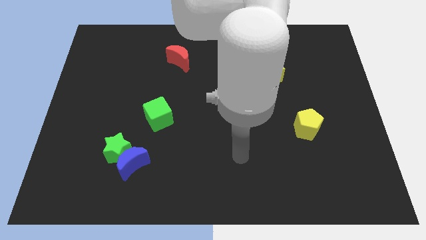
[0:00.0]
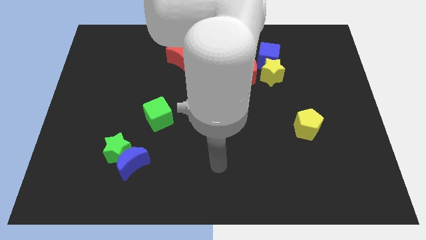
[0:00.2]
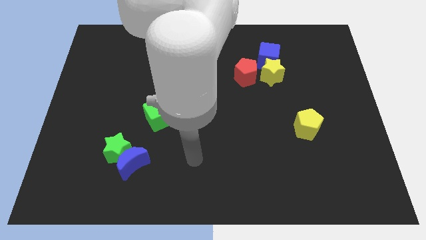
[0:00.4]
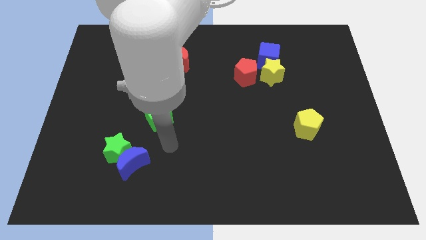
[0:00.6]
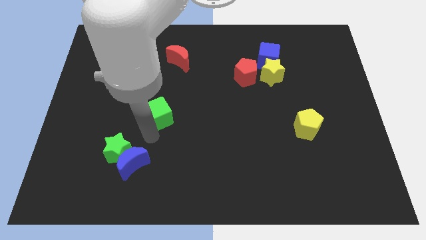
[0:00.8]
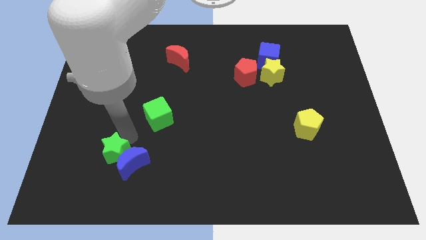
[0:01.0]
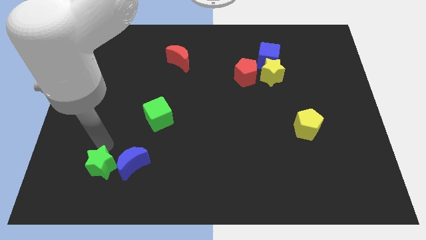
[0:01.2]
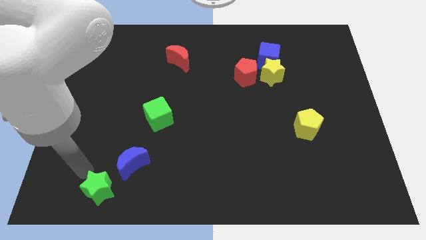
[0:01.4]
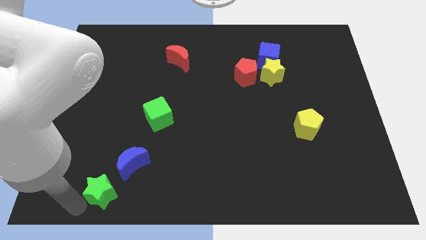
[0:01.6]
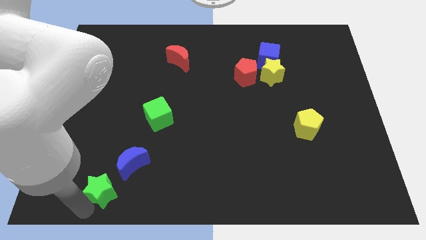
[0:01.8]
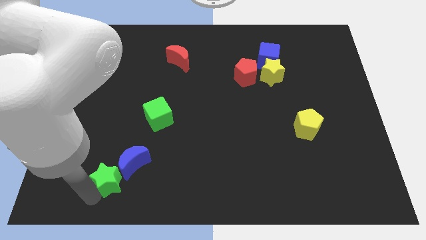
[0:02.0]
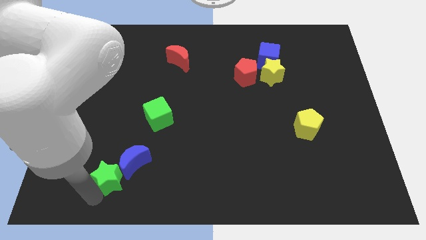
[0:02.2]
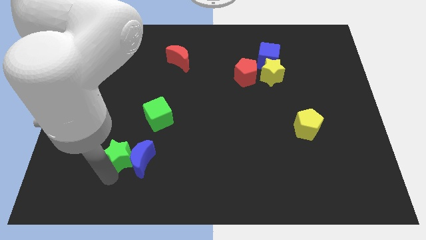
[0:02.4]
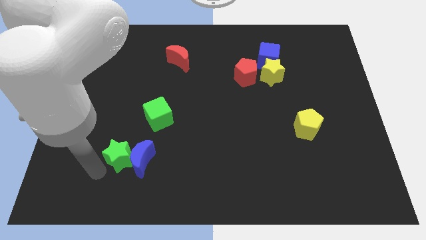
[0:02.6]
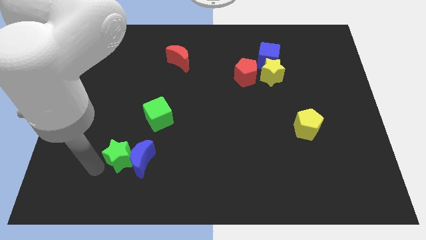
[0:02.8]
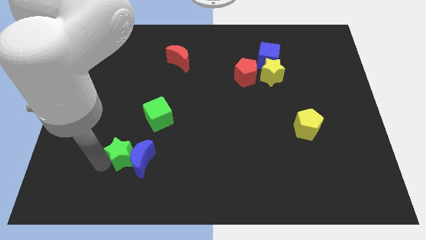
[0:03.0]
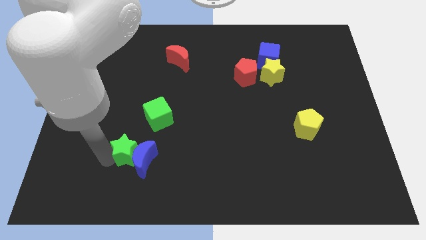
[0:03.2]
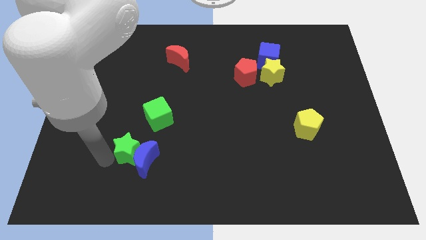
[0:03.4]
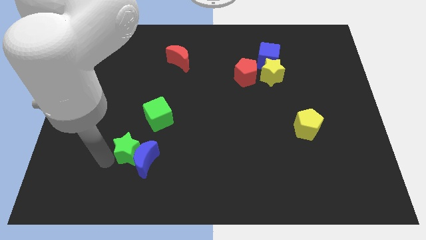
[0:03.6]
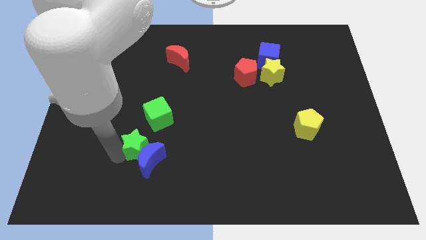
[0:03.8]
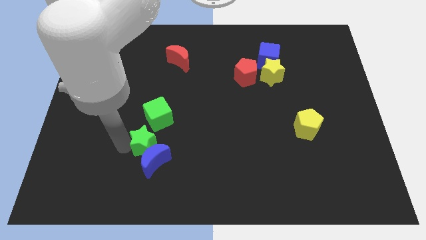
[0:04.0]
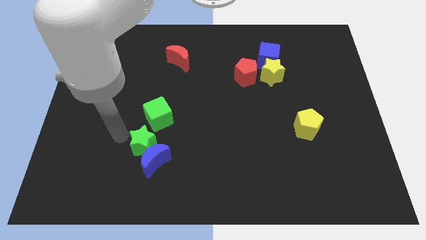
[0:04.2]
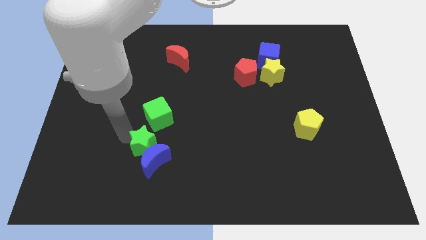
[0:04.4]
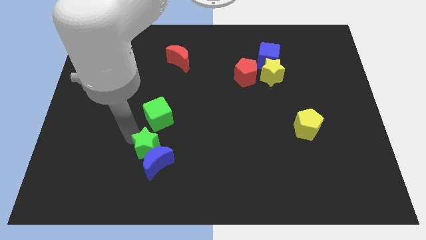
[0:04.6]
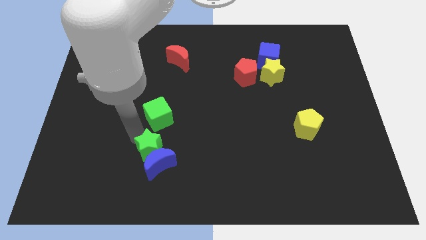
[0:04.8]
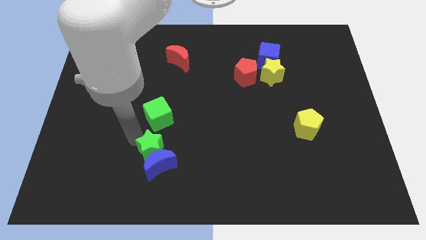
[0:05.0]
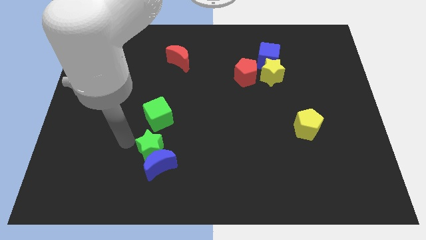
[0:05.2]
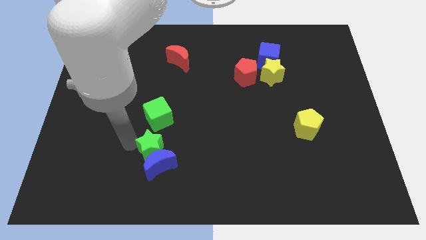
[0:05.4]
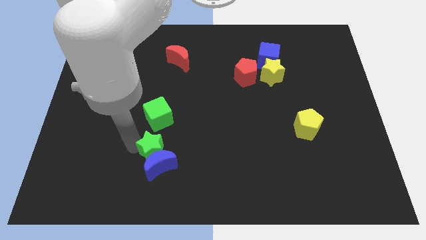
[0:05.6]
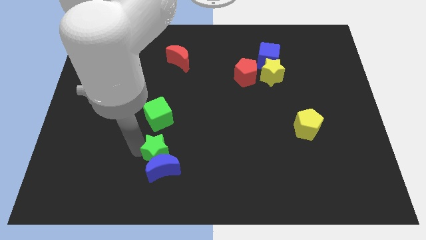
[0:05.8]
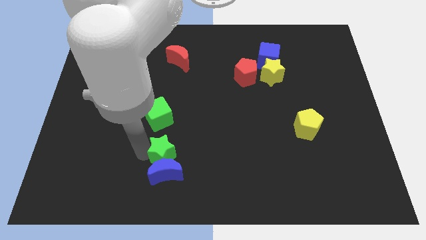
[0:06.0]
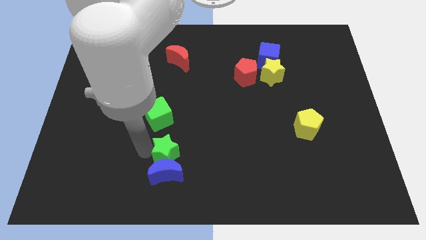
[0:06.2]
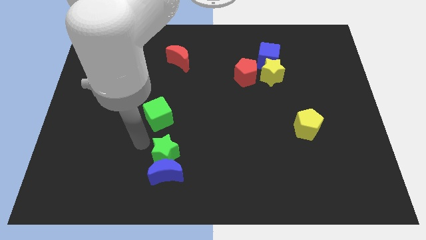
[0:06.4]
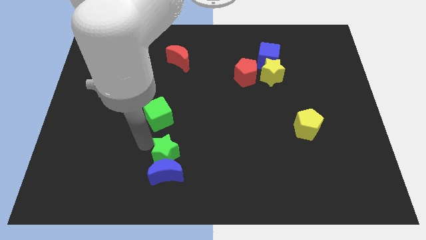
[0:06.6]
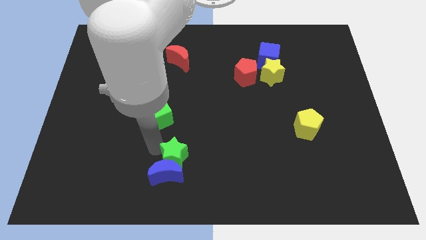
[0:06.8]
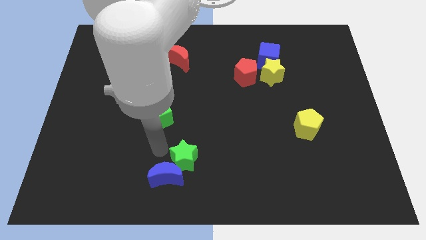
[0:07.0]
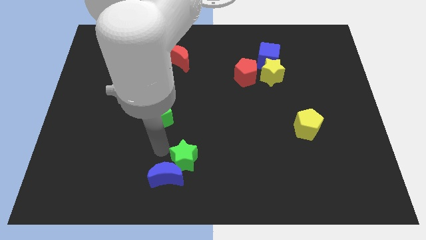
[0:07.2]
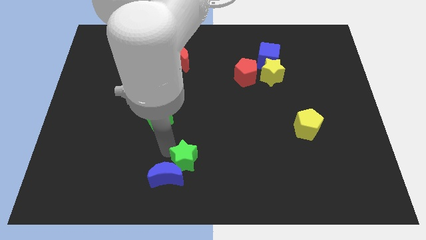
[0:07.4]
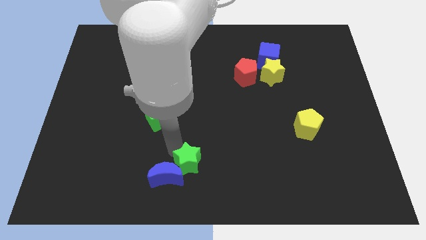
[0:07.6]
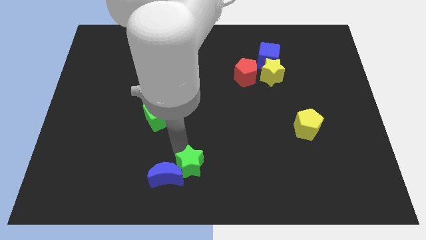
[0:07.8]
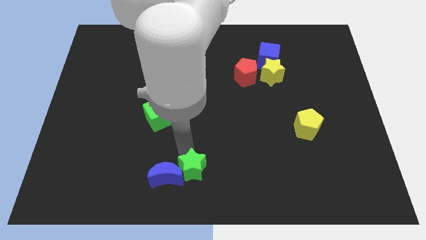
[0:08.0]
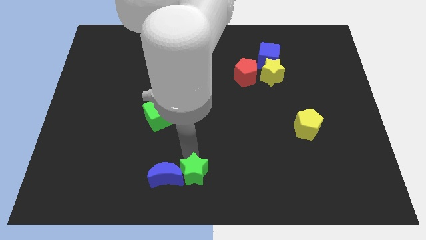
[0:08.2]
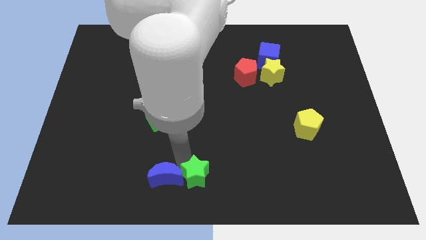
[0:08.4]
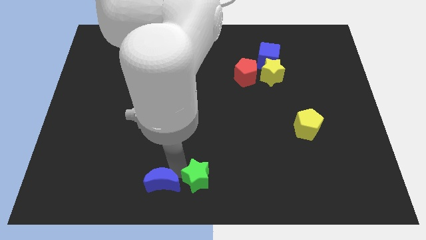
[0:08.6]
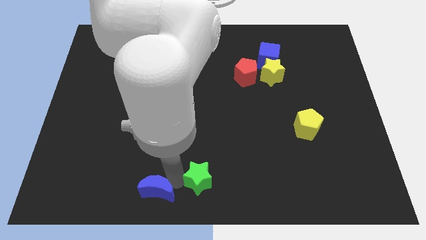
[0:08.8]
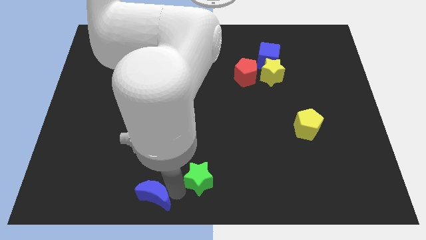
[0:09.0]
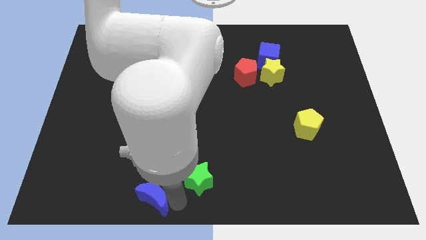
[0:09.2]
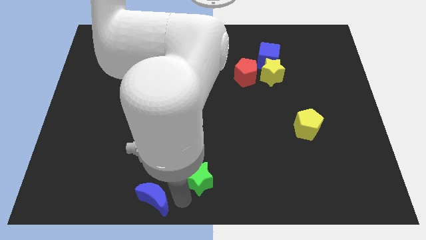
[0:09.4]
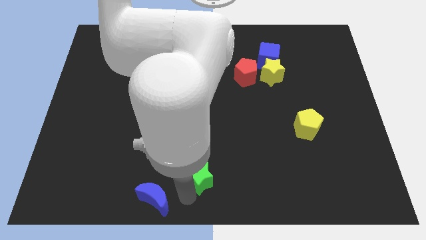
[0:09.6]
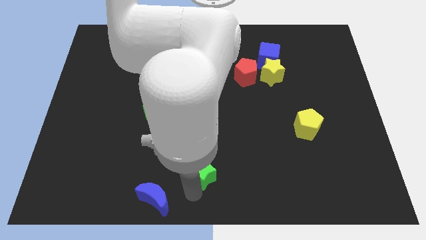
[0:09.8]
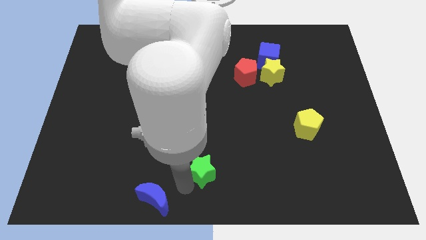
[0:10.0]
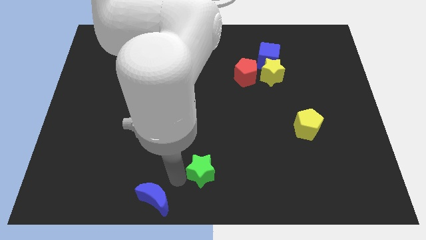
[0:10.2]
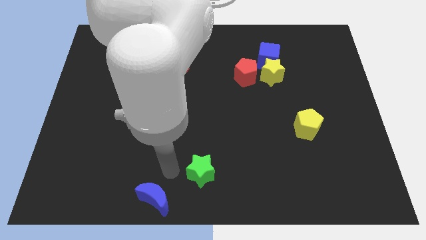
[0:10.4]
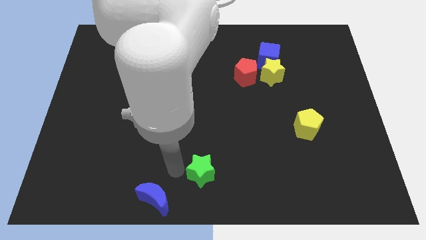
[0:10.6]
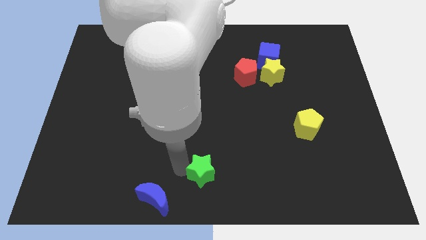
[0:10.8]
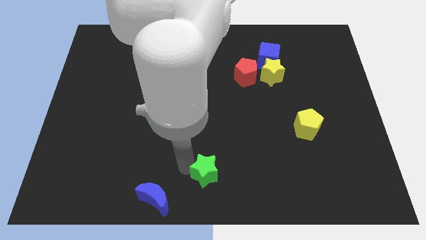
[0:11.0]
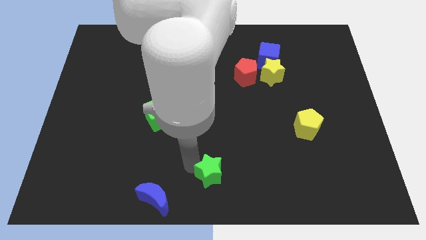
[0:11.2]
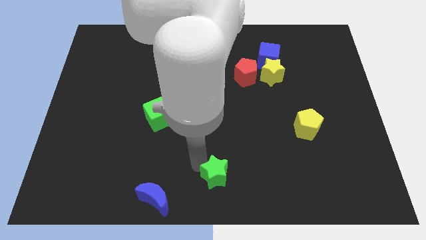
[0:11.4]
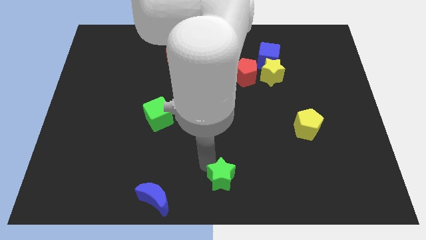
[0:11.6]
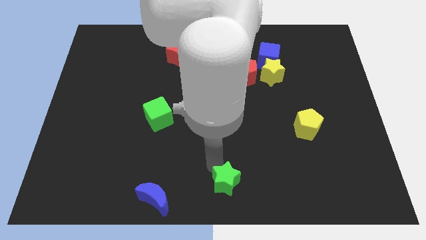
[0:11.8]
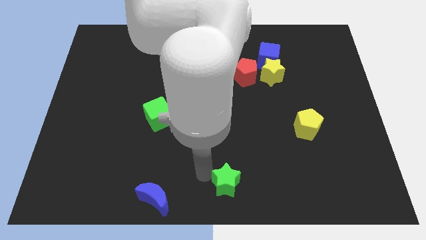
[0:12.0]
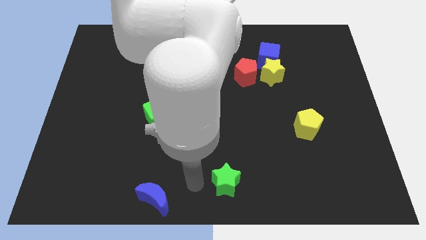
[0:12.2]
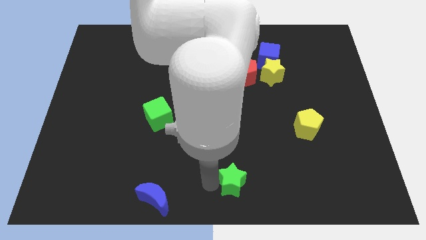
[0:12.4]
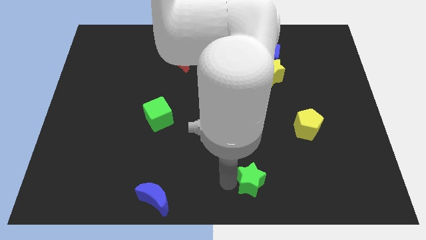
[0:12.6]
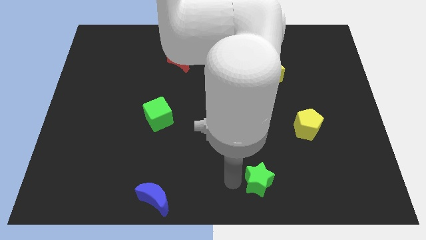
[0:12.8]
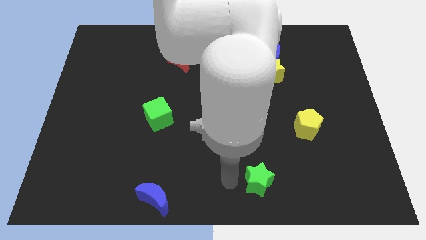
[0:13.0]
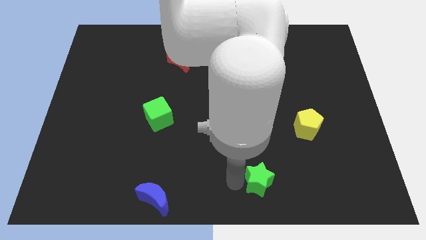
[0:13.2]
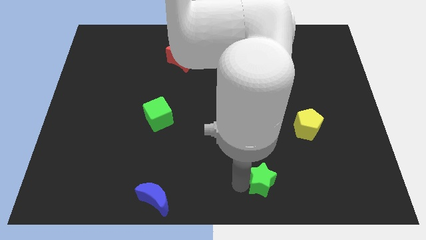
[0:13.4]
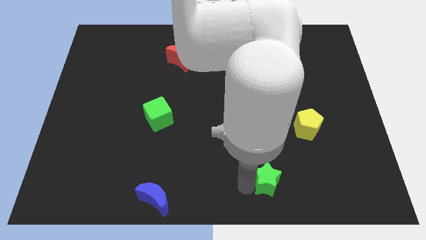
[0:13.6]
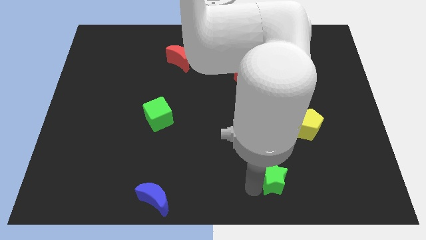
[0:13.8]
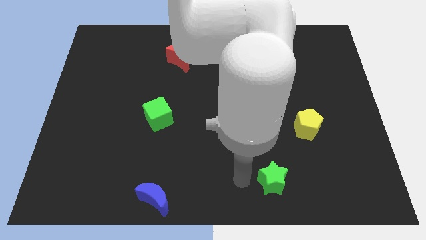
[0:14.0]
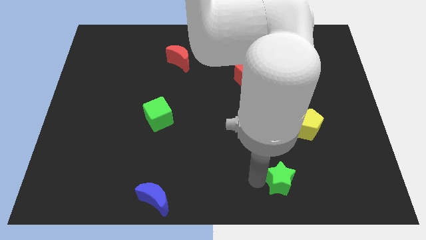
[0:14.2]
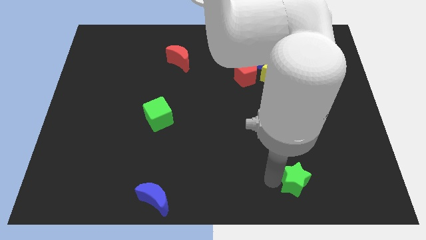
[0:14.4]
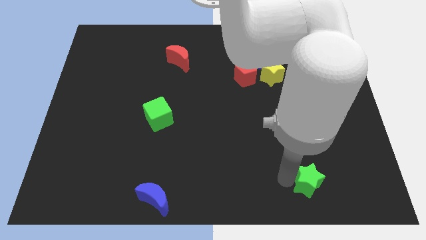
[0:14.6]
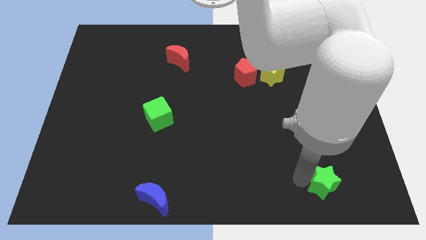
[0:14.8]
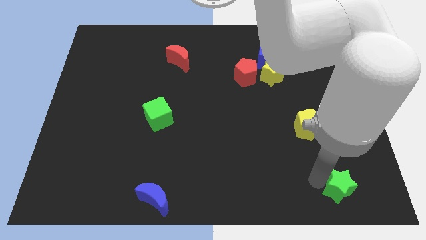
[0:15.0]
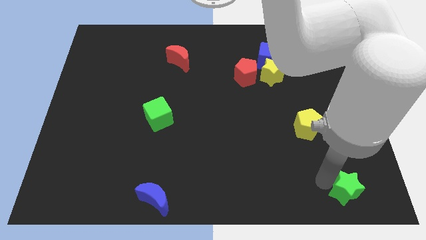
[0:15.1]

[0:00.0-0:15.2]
put the green star to the bottom right of the board
